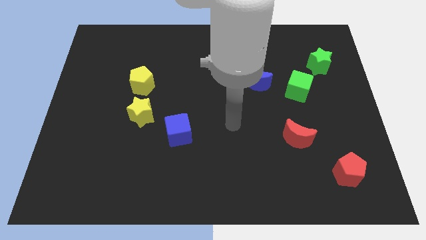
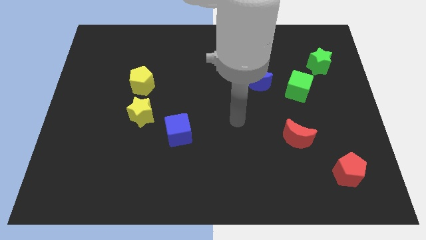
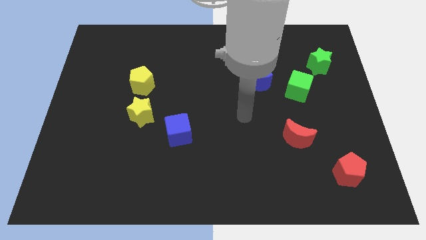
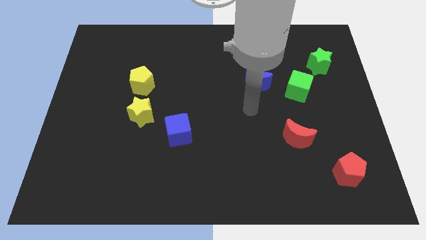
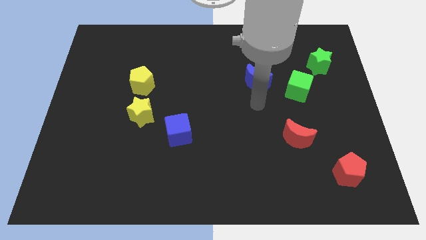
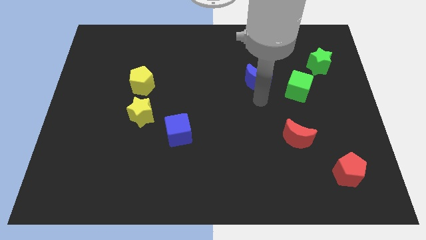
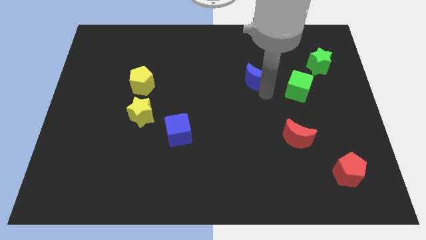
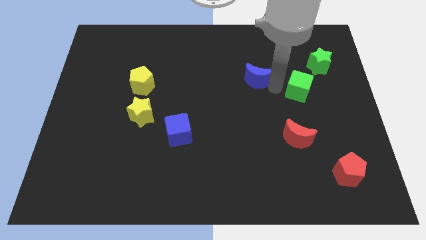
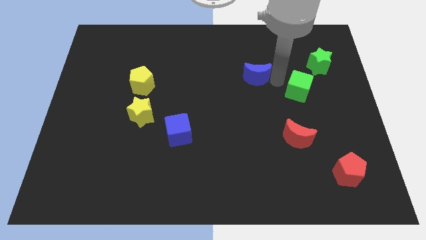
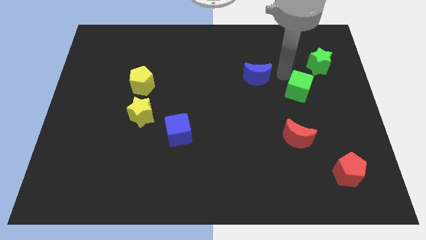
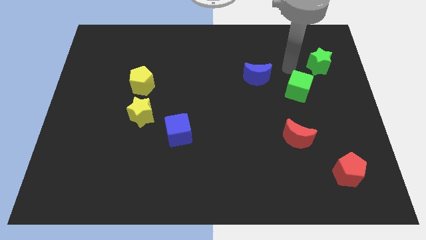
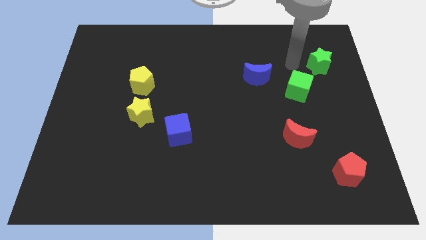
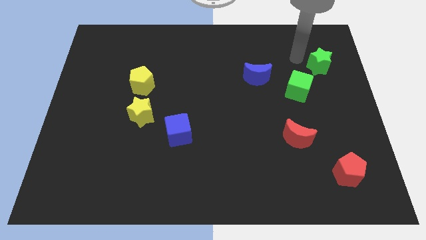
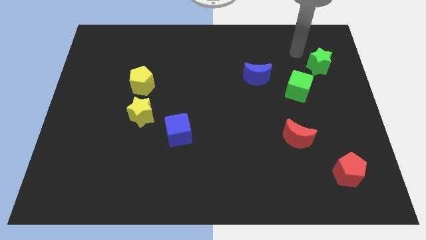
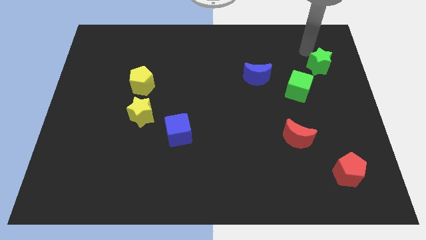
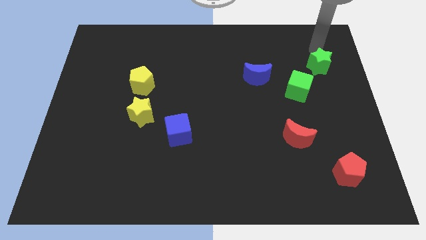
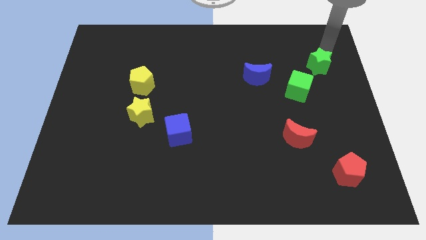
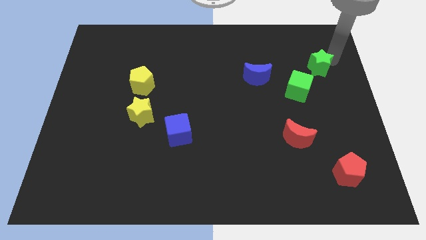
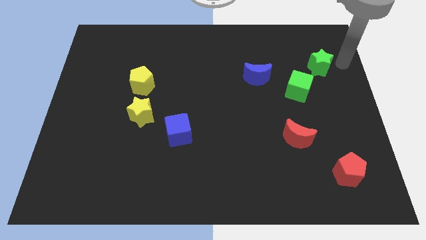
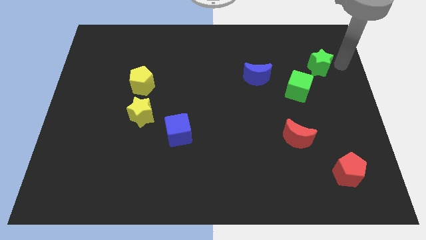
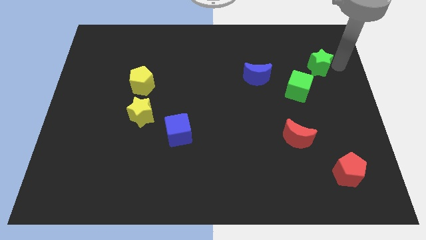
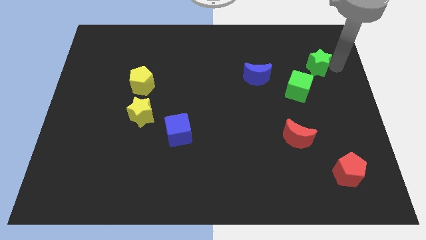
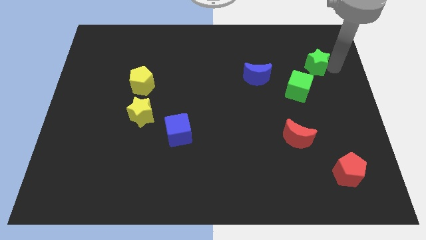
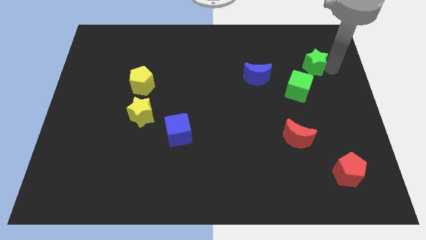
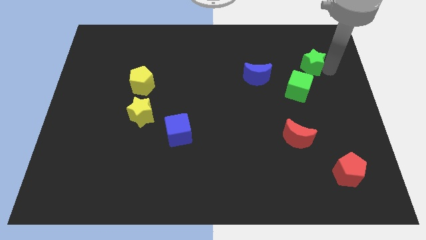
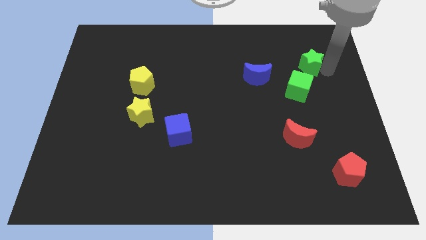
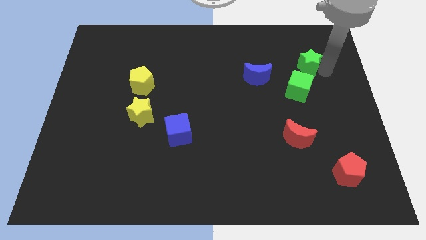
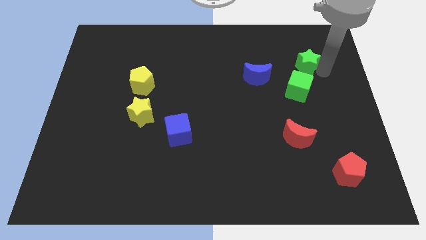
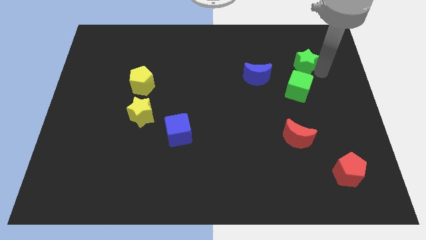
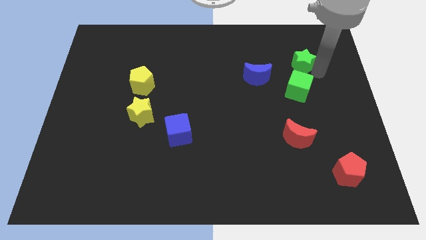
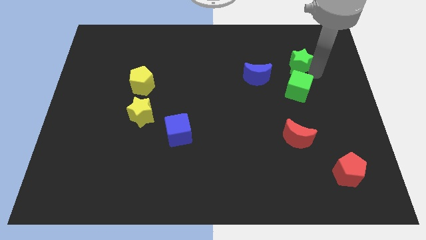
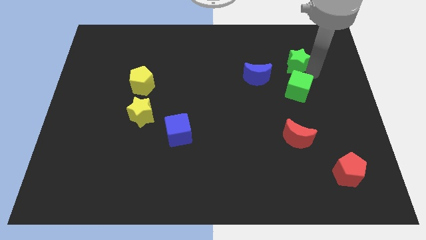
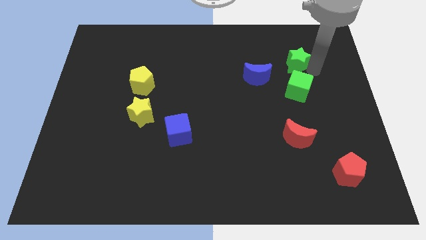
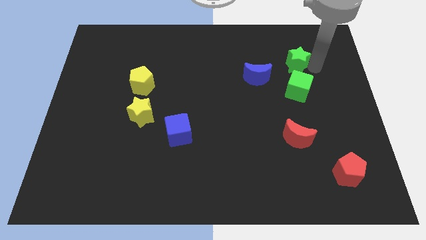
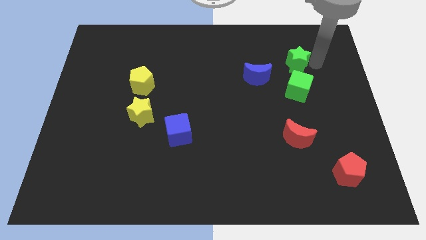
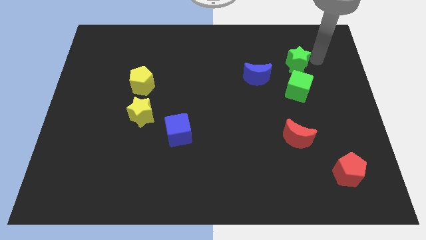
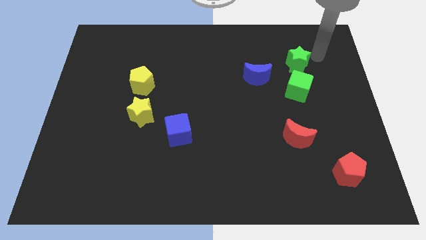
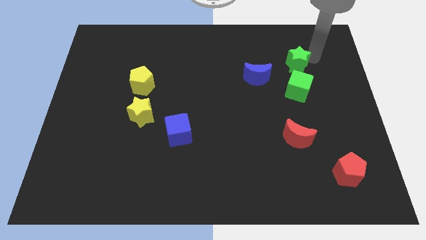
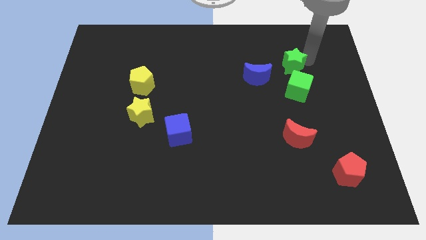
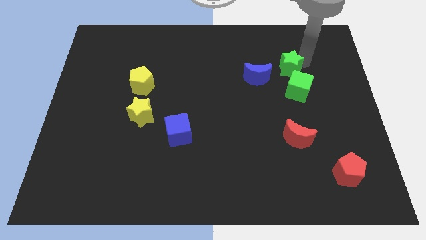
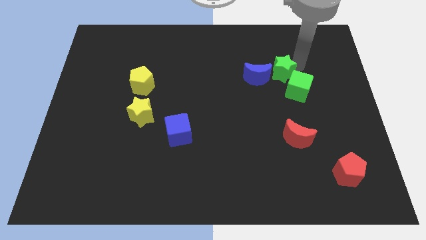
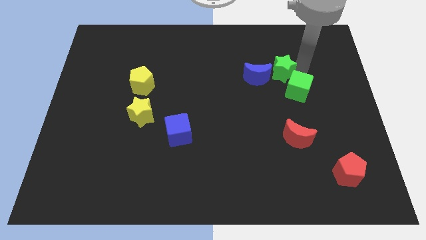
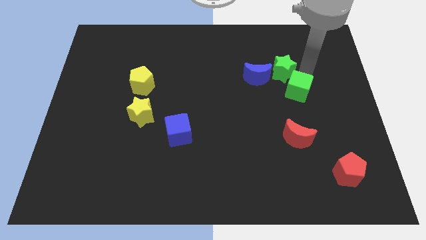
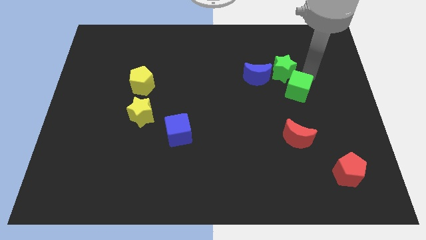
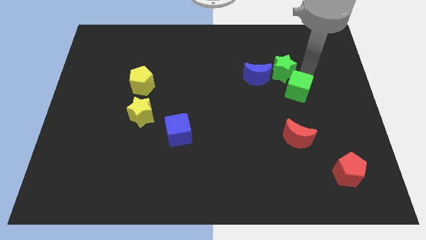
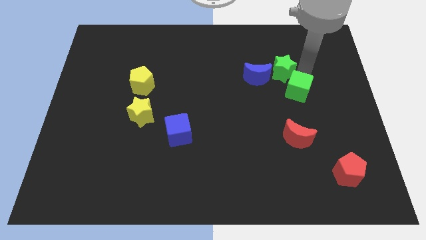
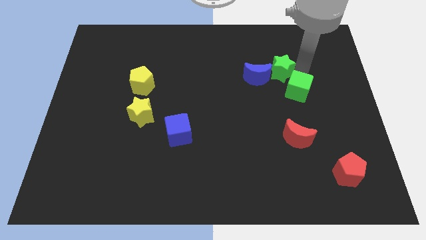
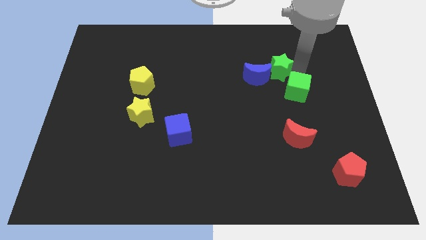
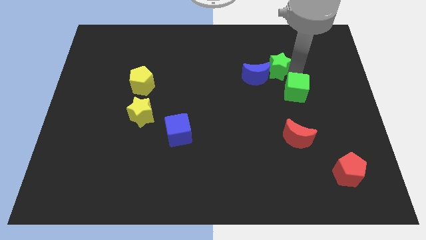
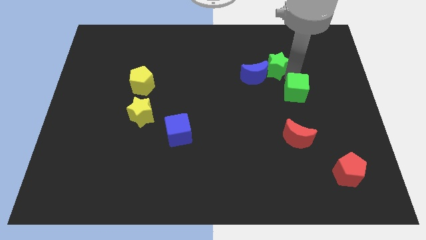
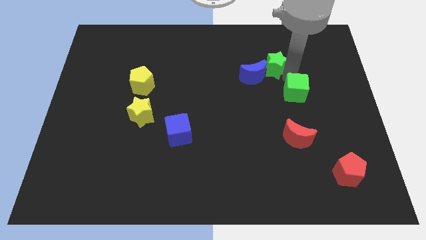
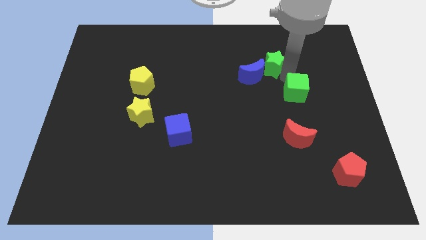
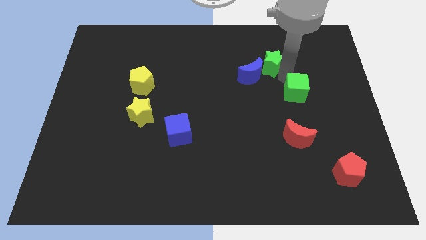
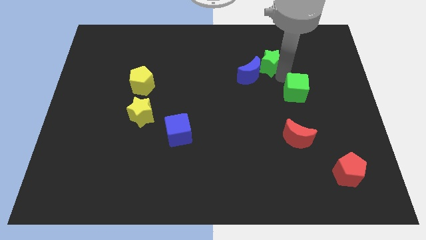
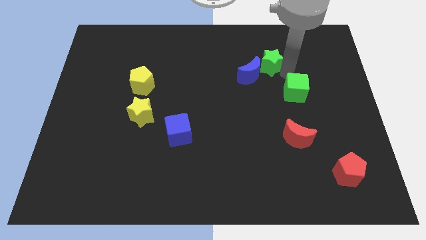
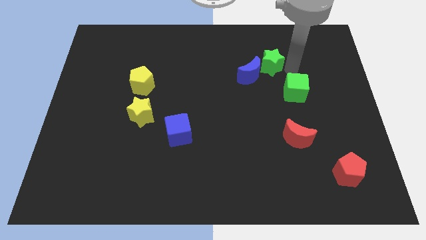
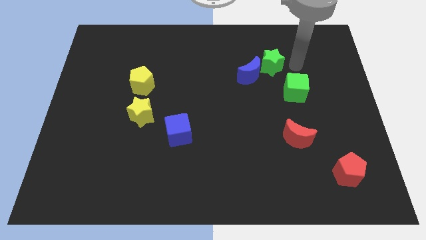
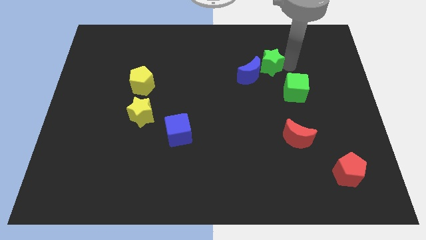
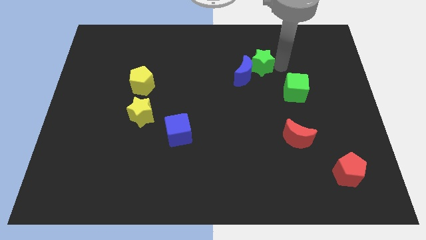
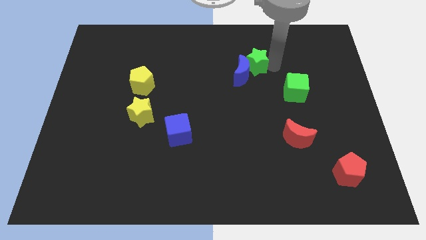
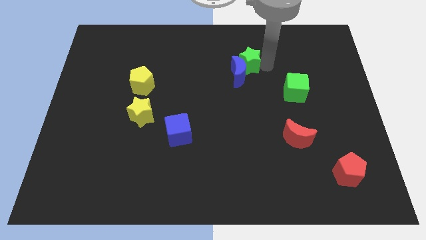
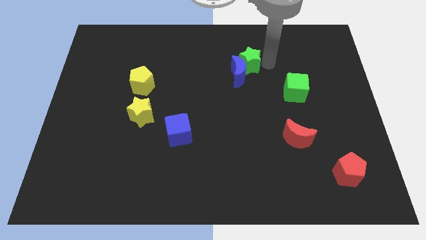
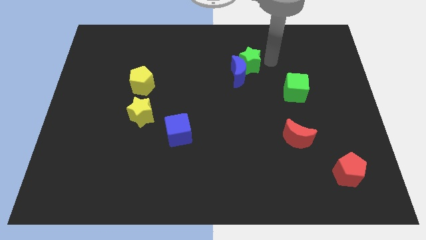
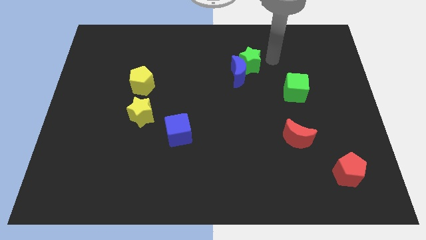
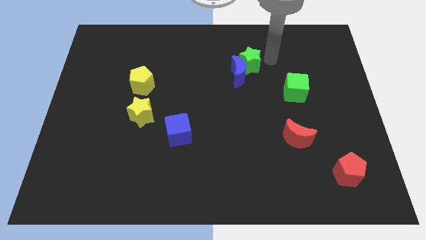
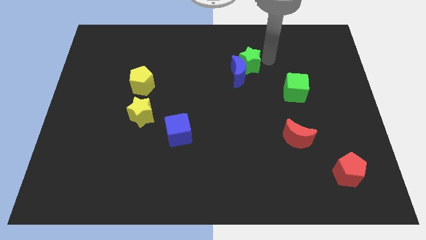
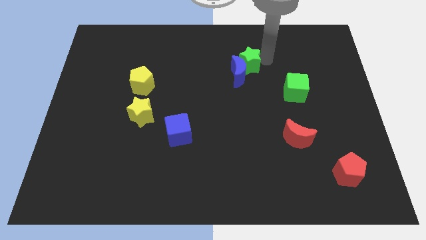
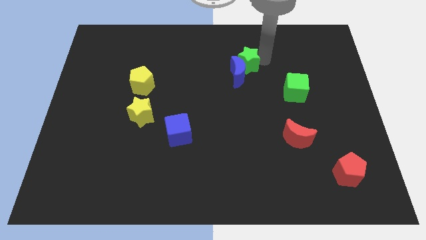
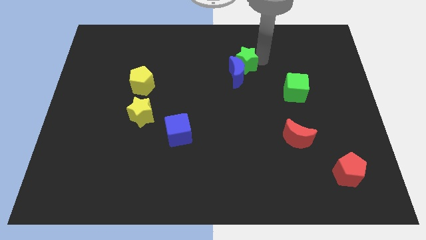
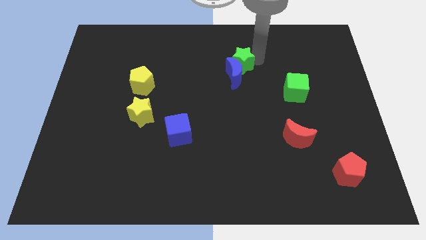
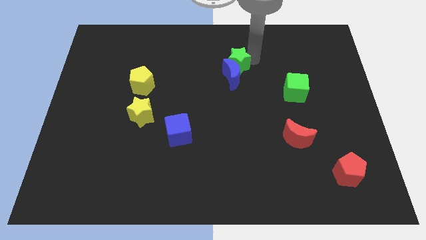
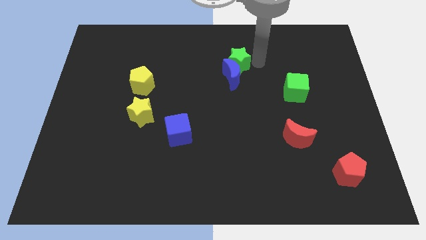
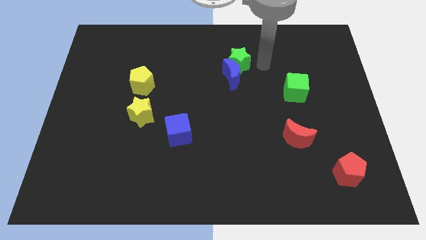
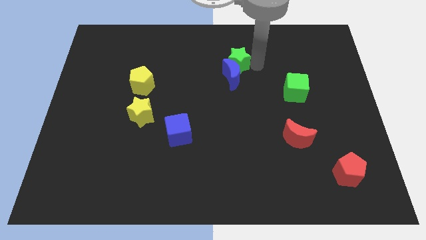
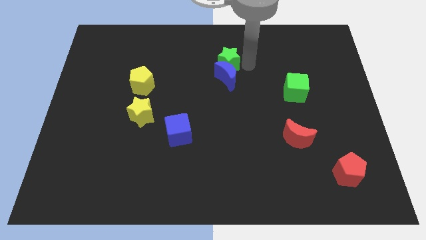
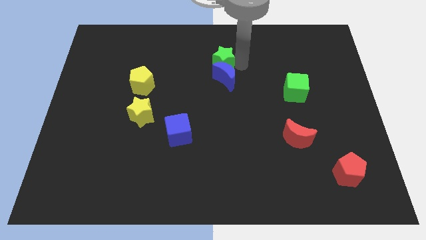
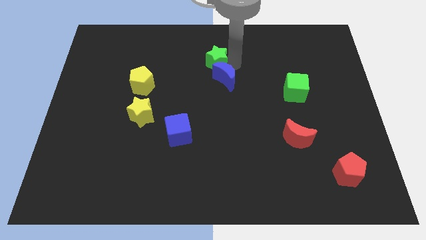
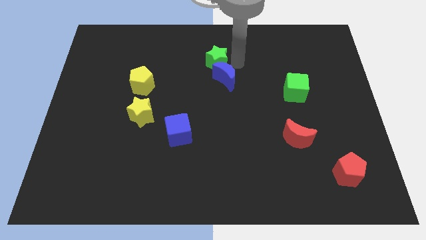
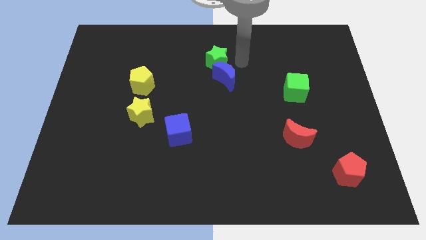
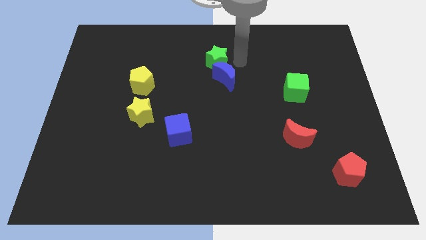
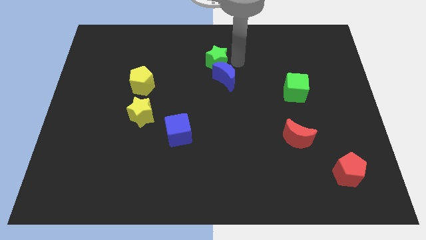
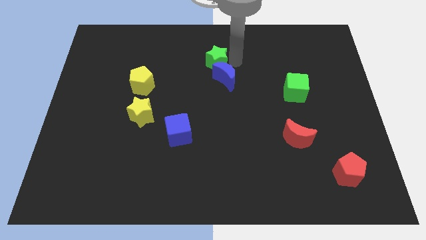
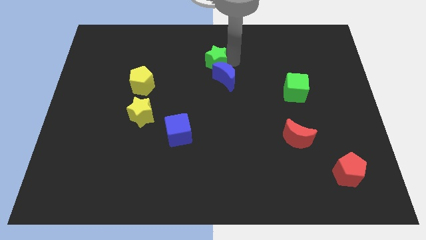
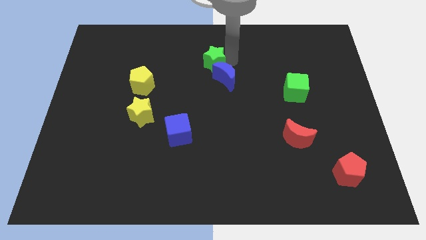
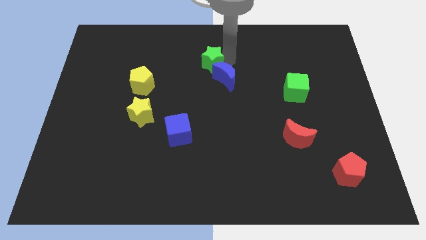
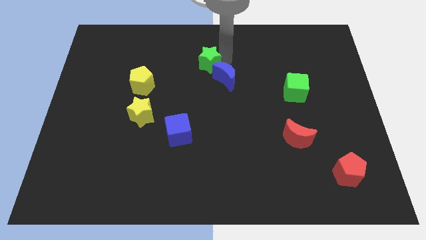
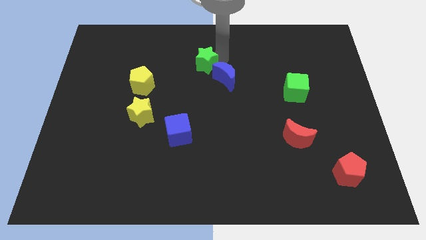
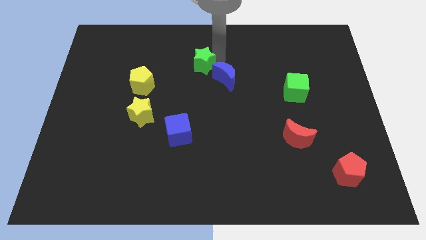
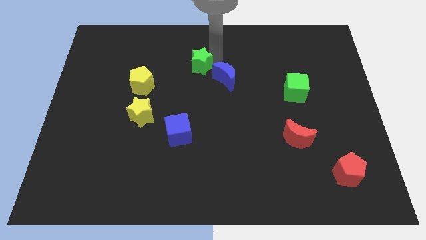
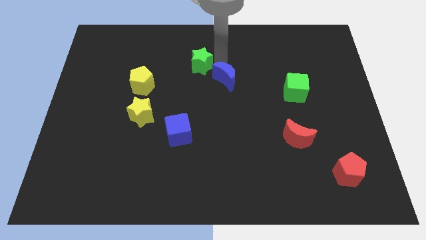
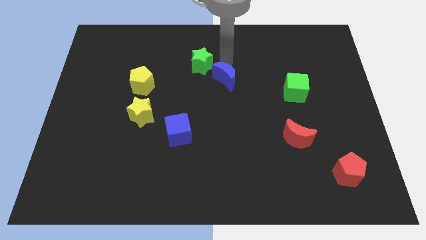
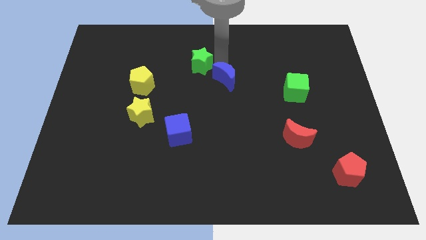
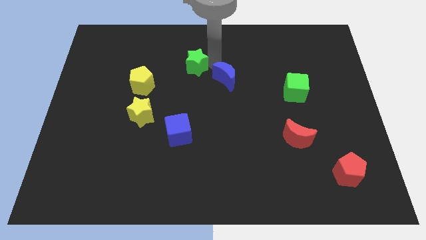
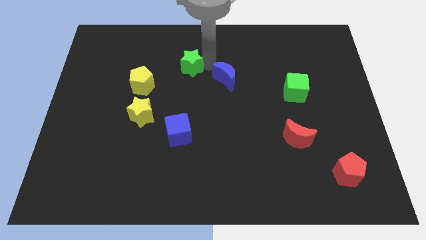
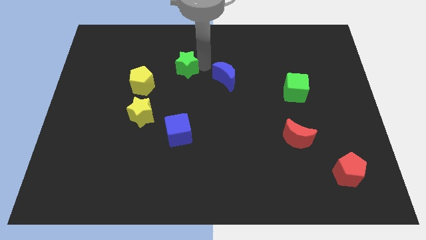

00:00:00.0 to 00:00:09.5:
move the green star to the top right side of the yellow pentagon
